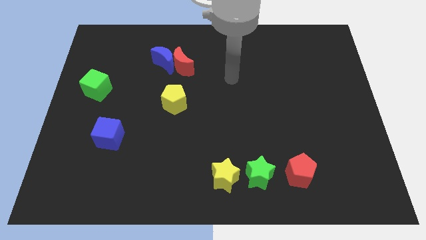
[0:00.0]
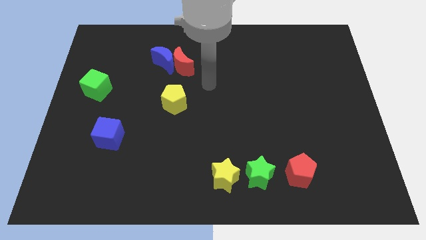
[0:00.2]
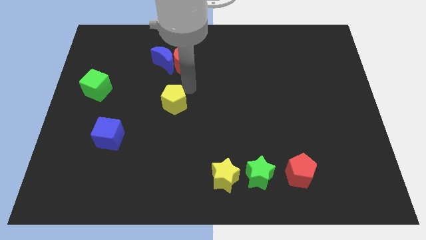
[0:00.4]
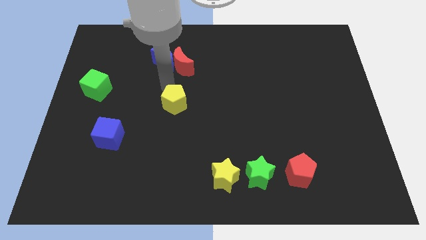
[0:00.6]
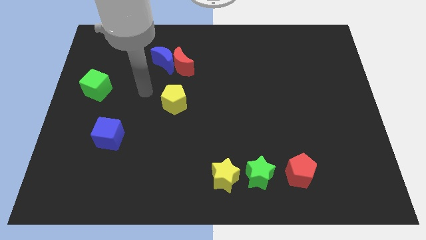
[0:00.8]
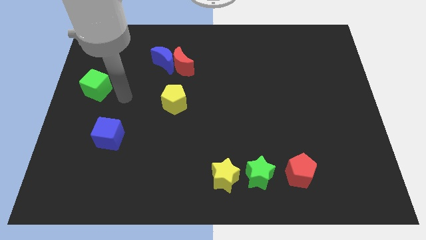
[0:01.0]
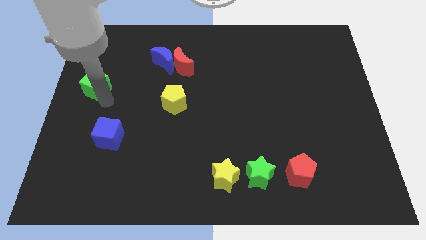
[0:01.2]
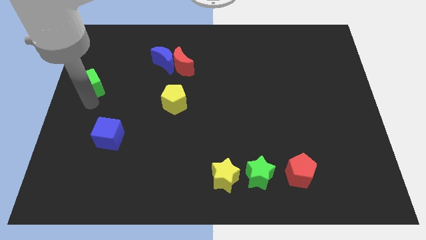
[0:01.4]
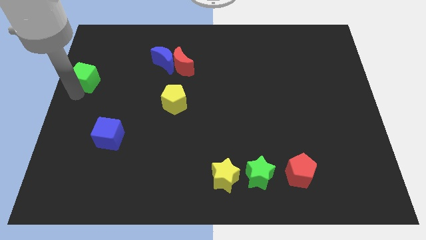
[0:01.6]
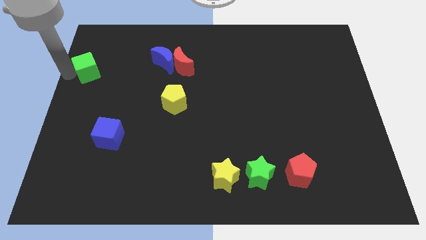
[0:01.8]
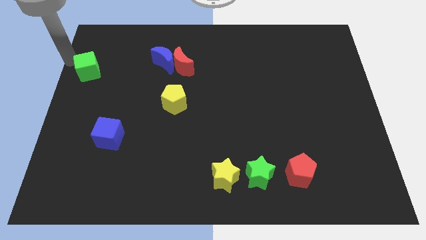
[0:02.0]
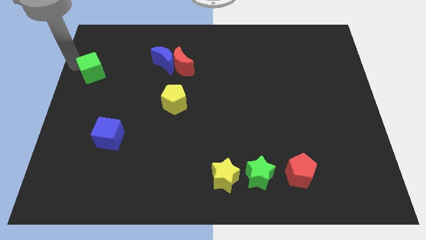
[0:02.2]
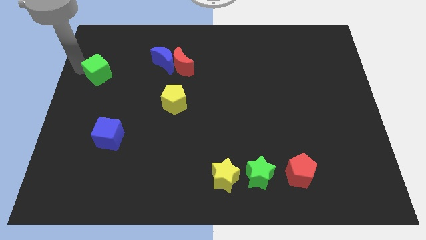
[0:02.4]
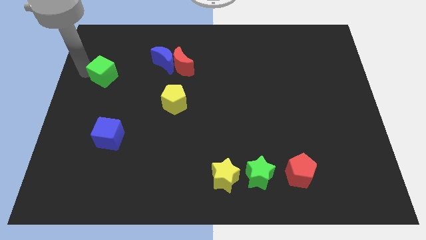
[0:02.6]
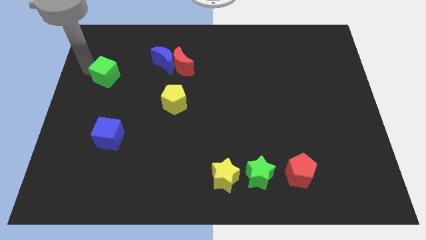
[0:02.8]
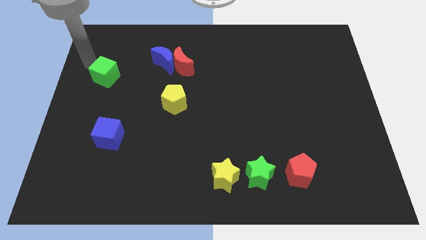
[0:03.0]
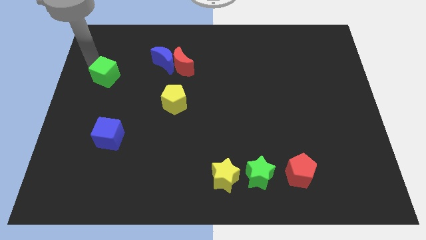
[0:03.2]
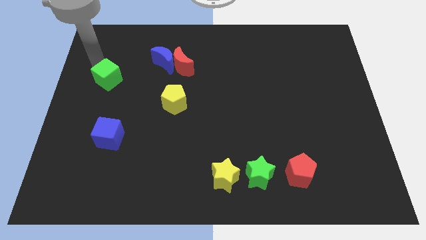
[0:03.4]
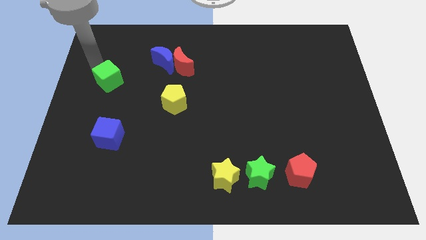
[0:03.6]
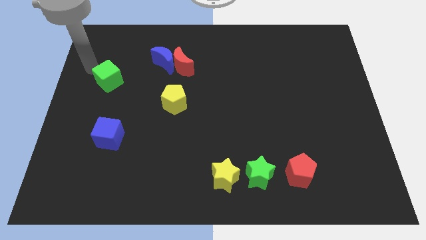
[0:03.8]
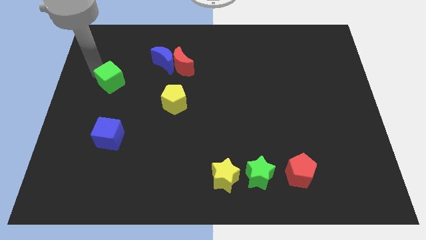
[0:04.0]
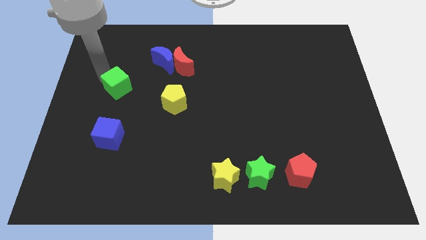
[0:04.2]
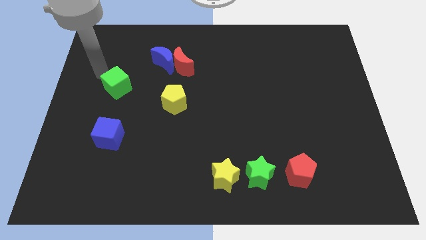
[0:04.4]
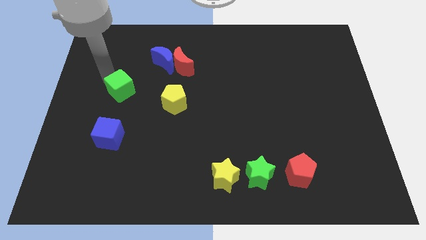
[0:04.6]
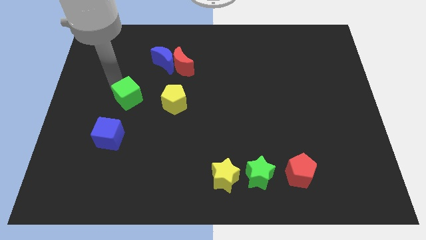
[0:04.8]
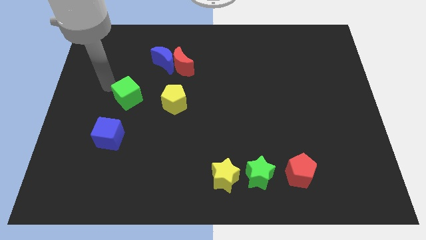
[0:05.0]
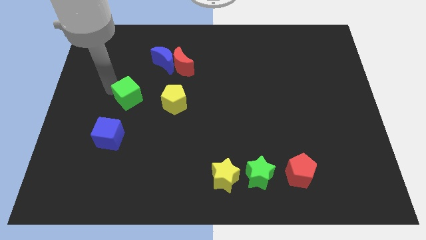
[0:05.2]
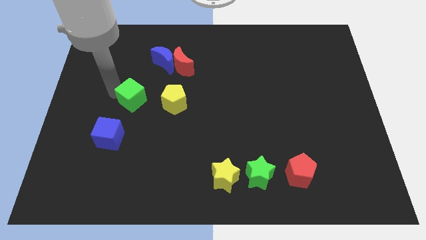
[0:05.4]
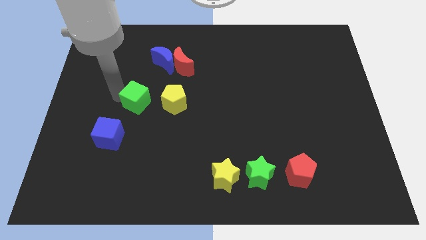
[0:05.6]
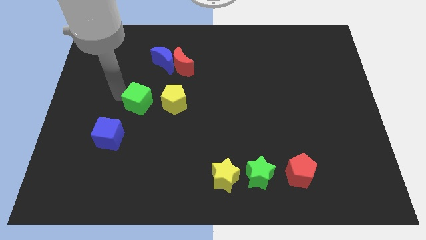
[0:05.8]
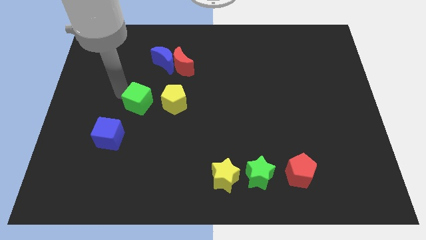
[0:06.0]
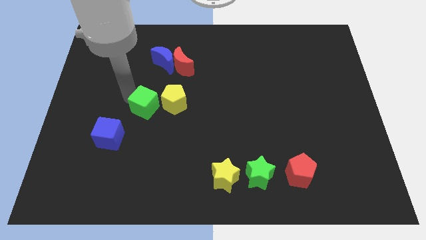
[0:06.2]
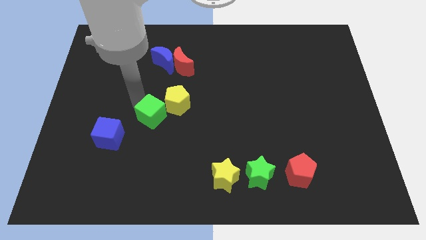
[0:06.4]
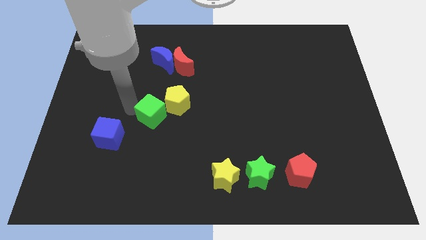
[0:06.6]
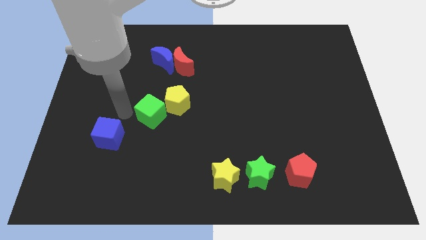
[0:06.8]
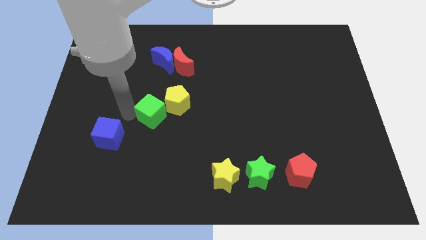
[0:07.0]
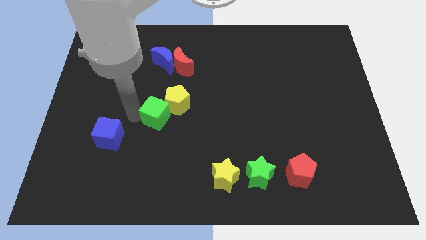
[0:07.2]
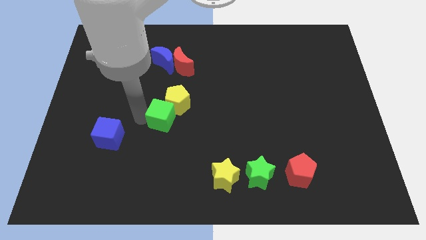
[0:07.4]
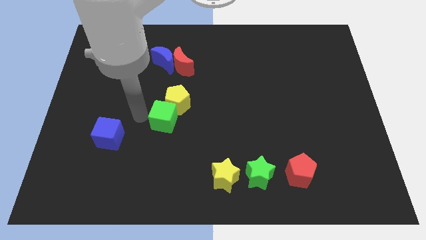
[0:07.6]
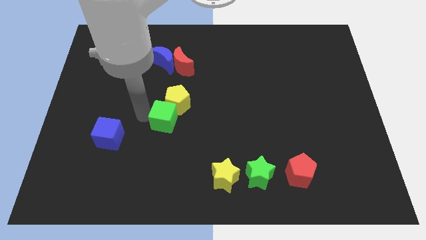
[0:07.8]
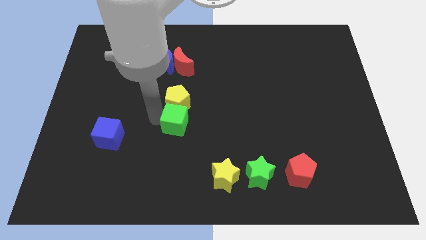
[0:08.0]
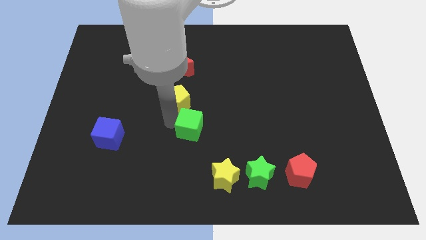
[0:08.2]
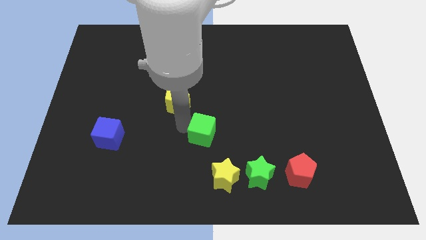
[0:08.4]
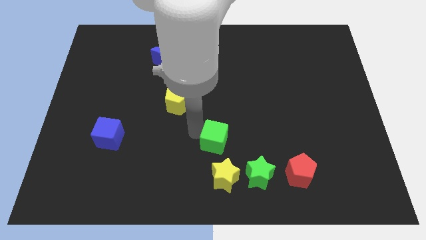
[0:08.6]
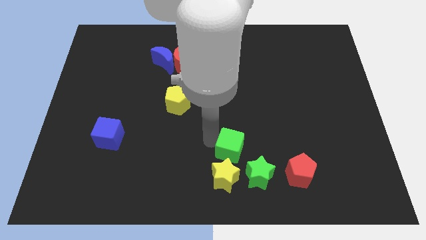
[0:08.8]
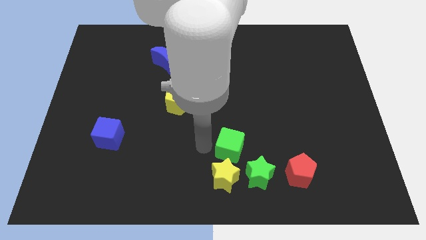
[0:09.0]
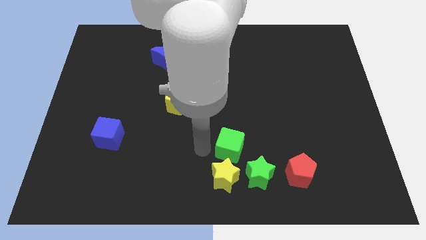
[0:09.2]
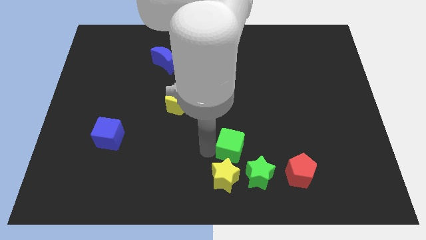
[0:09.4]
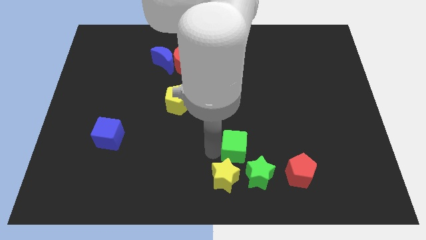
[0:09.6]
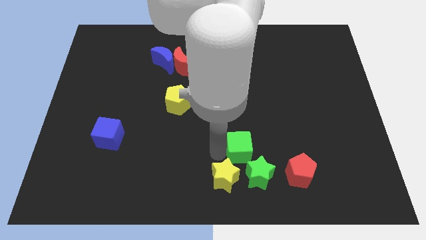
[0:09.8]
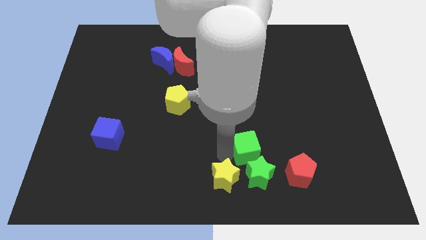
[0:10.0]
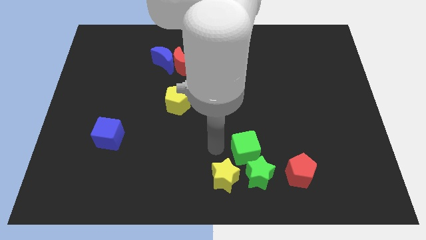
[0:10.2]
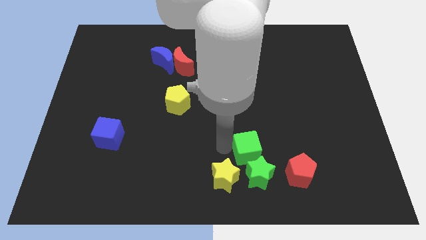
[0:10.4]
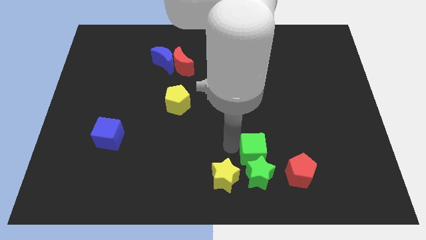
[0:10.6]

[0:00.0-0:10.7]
move the green cube to the top right side of the green star

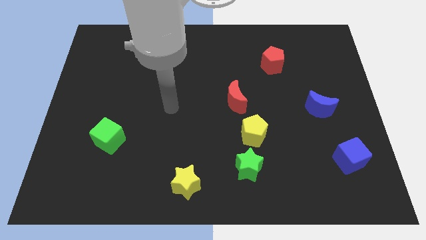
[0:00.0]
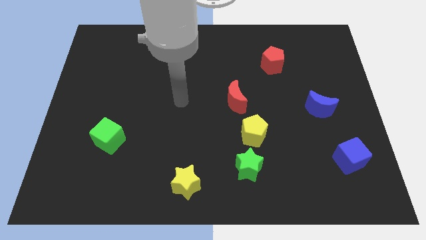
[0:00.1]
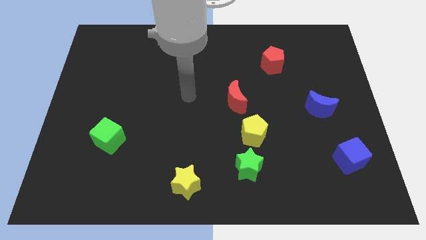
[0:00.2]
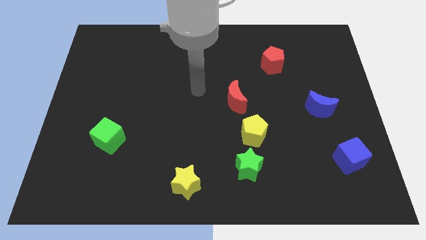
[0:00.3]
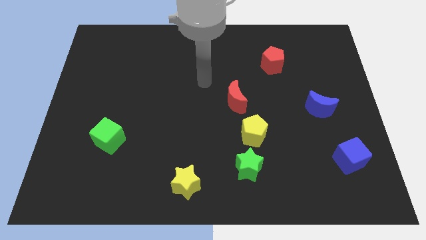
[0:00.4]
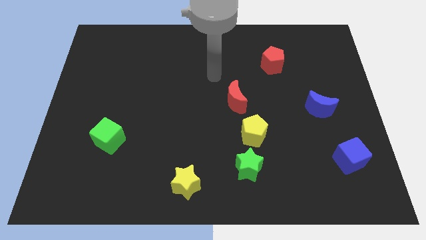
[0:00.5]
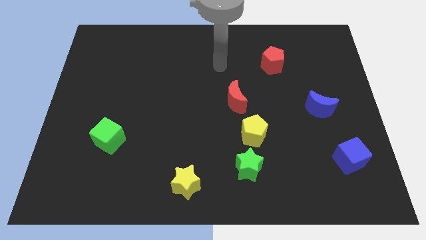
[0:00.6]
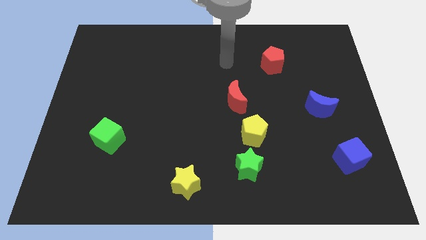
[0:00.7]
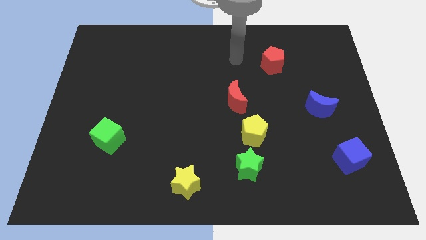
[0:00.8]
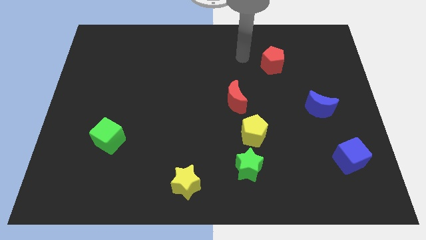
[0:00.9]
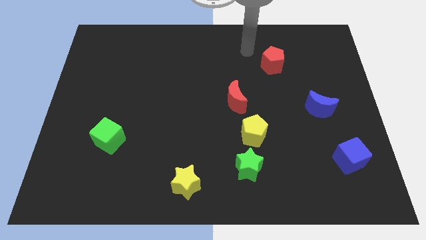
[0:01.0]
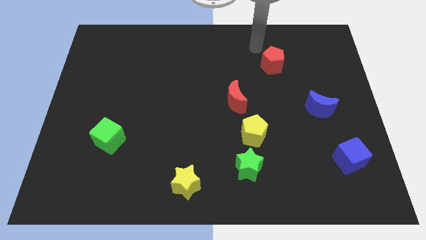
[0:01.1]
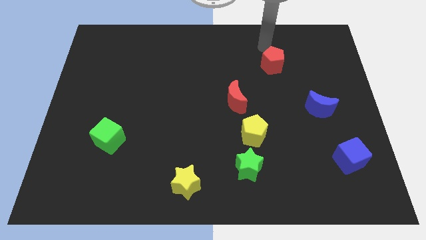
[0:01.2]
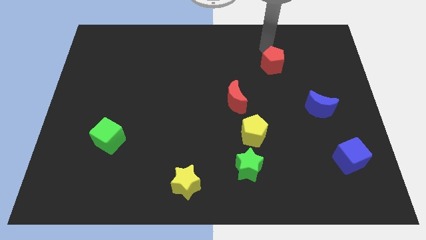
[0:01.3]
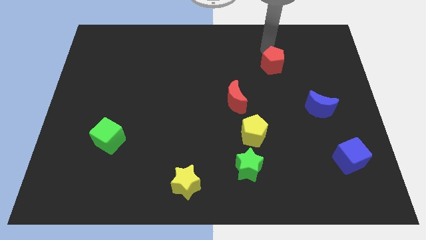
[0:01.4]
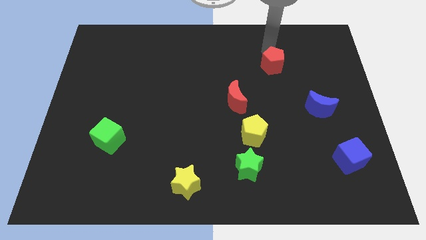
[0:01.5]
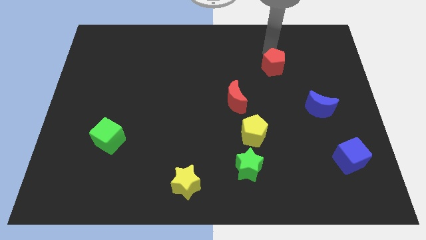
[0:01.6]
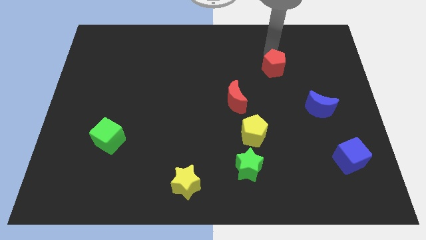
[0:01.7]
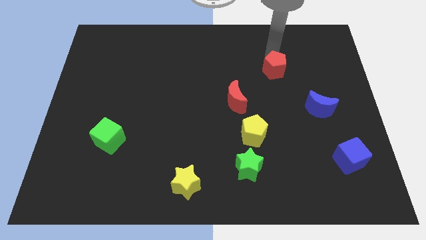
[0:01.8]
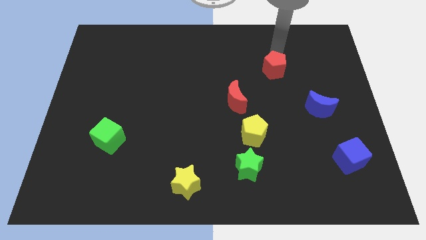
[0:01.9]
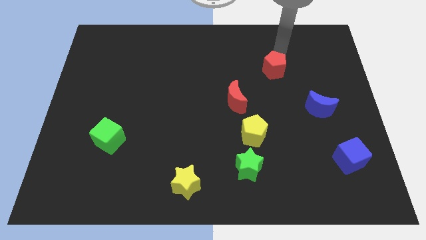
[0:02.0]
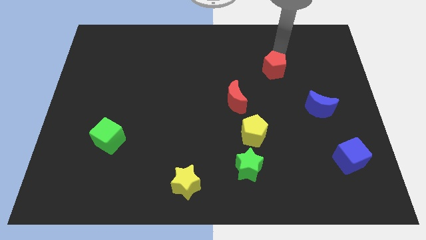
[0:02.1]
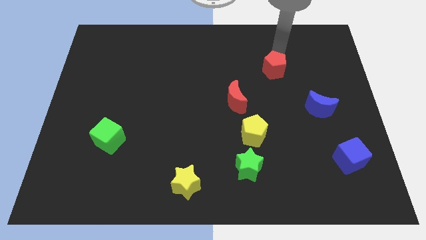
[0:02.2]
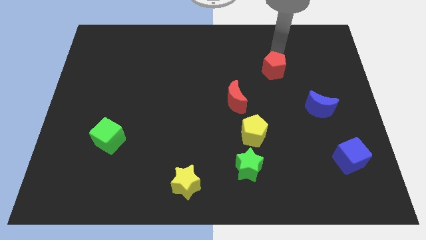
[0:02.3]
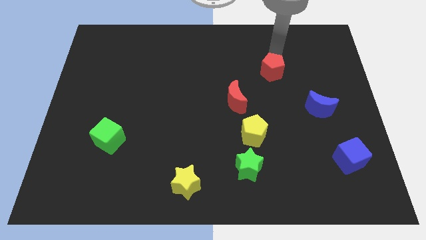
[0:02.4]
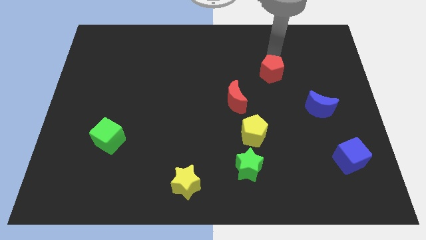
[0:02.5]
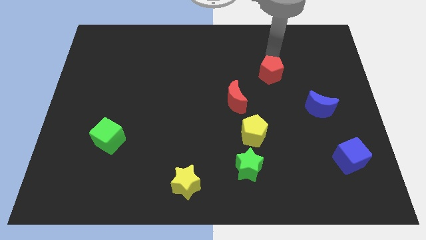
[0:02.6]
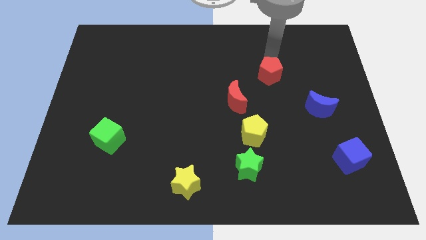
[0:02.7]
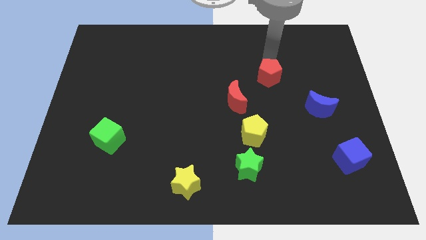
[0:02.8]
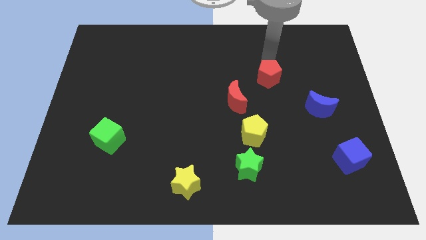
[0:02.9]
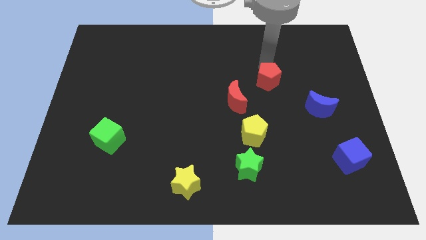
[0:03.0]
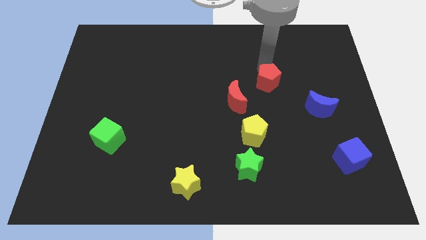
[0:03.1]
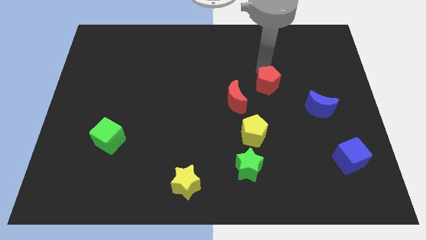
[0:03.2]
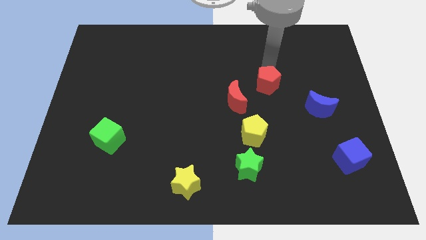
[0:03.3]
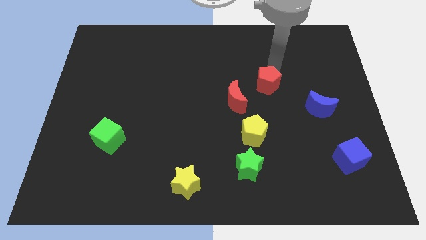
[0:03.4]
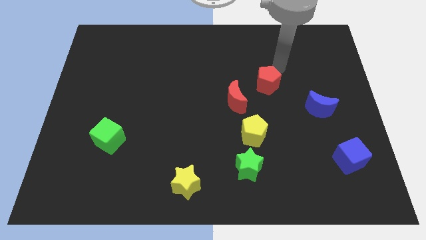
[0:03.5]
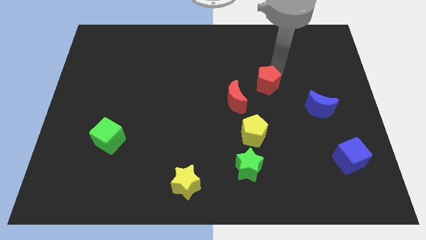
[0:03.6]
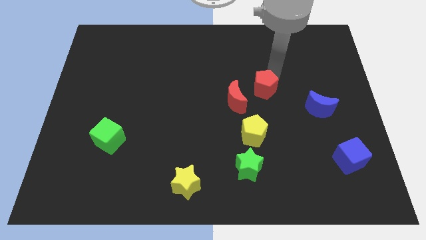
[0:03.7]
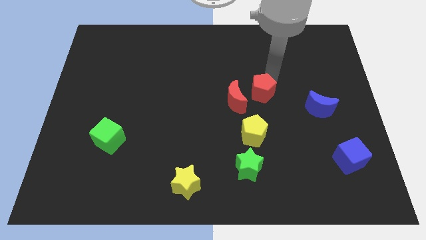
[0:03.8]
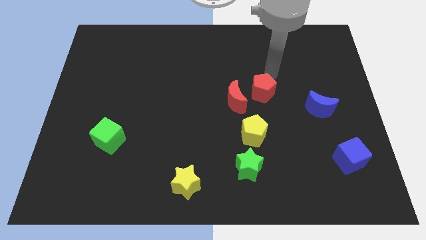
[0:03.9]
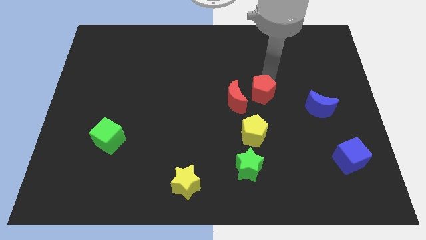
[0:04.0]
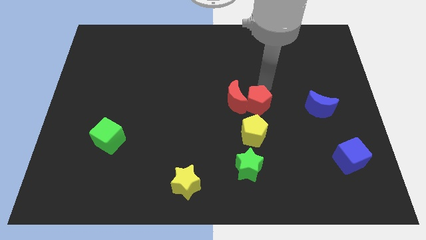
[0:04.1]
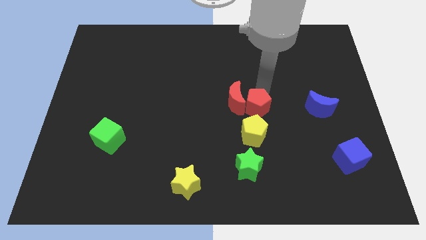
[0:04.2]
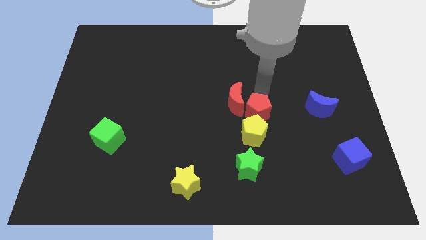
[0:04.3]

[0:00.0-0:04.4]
push the red pentagon to the top side of the green star
